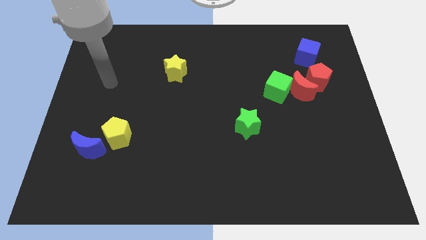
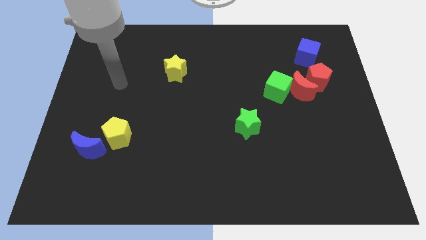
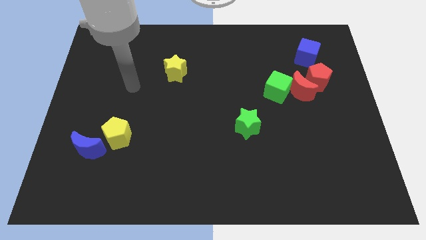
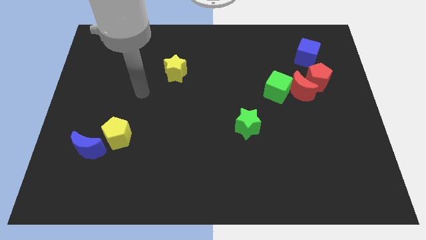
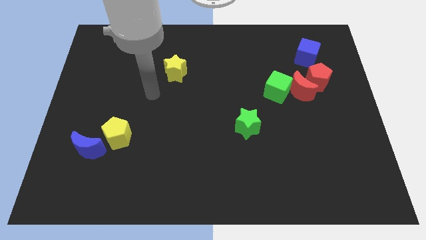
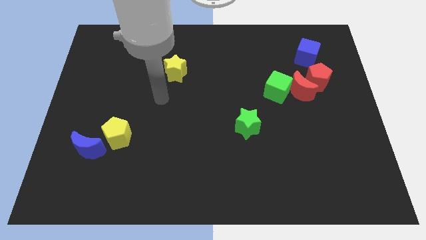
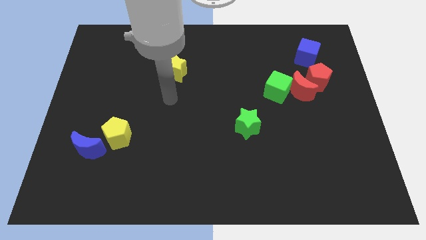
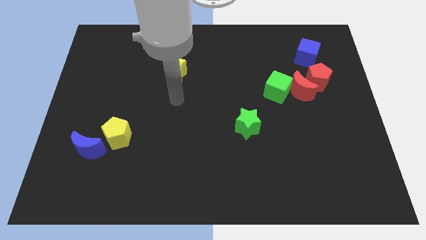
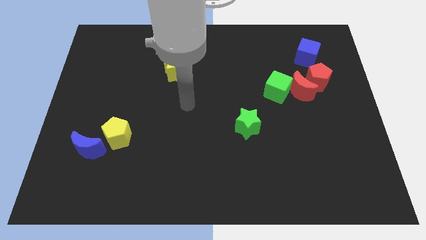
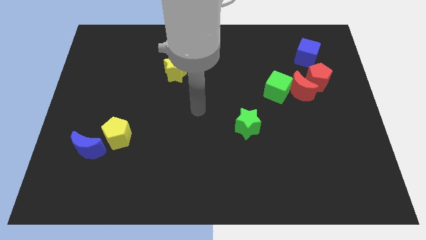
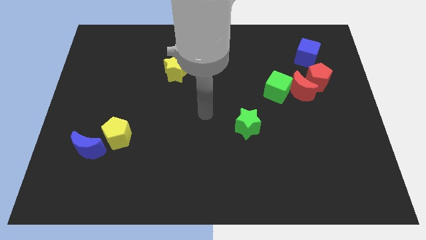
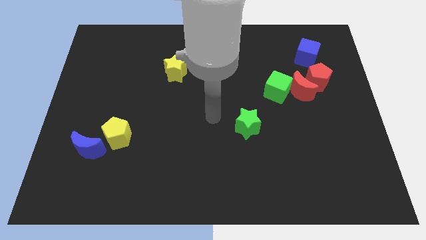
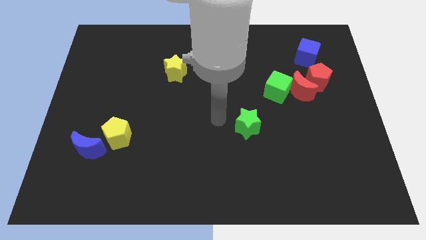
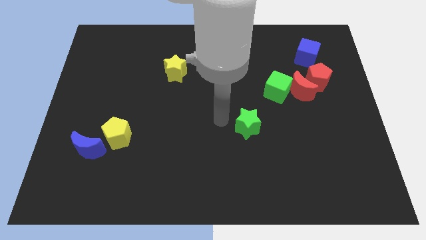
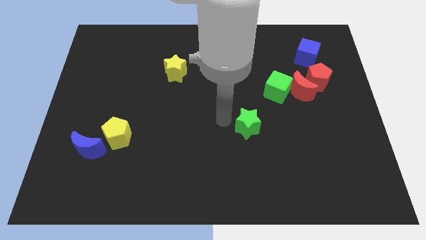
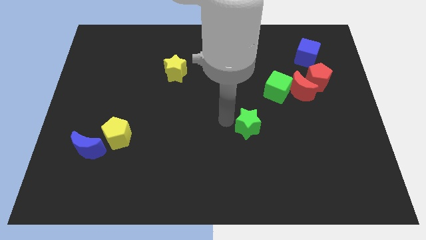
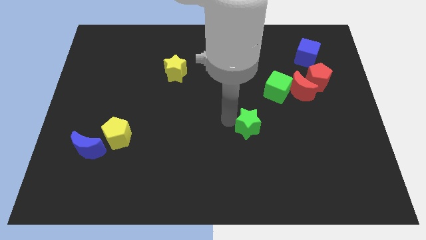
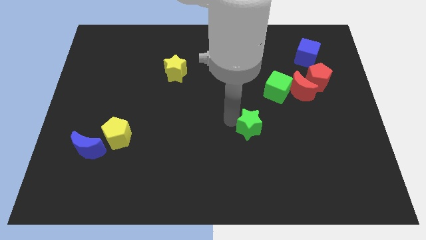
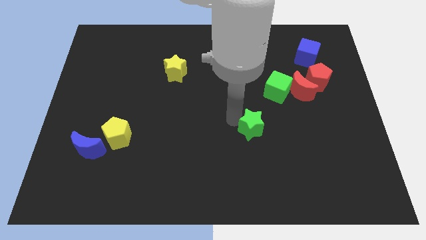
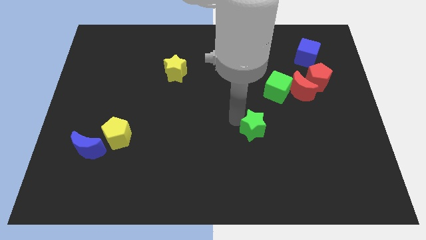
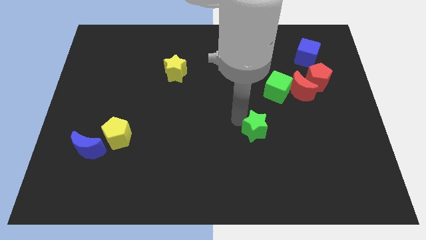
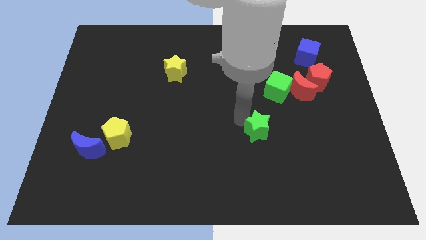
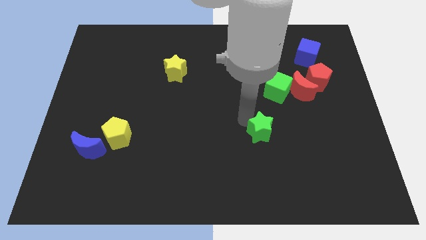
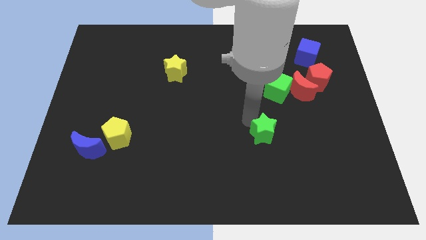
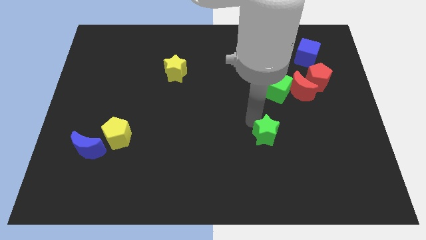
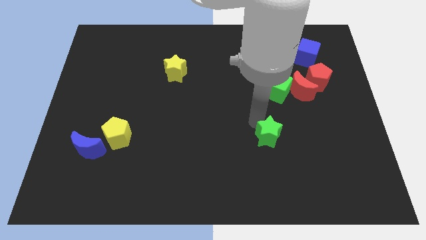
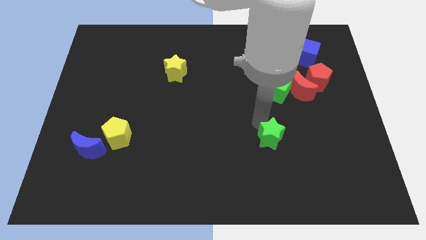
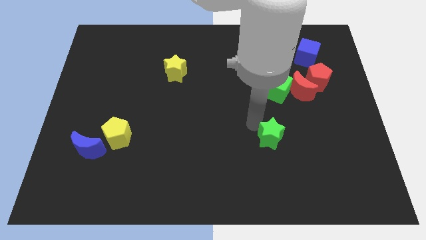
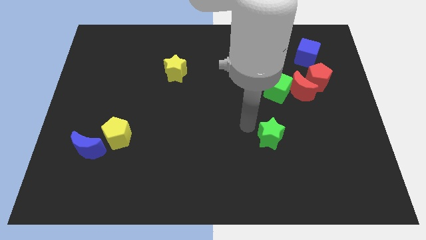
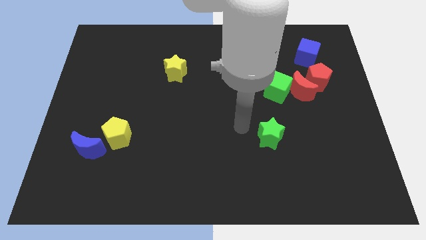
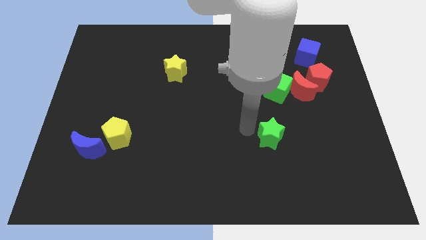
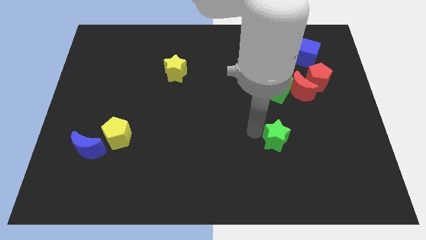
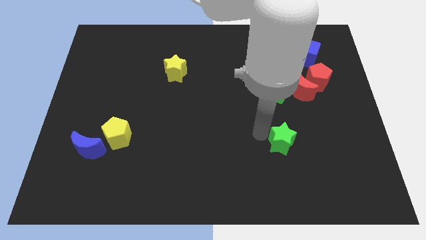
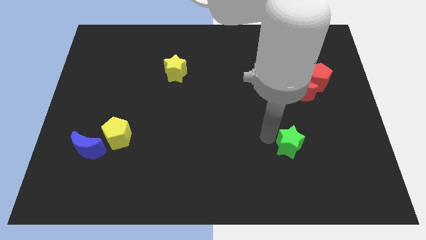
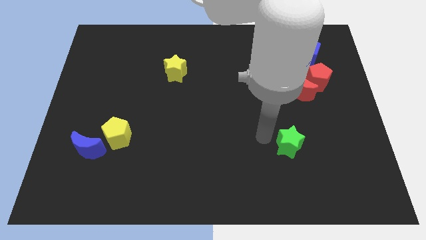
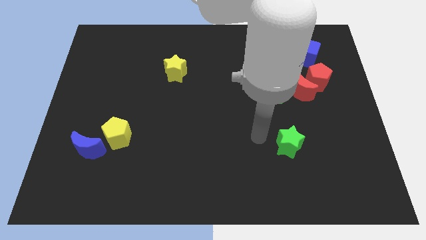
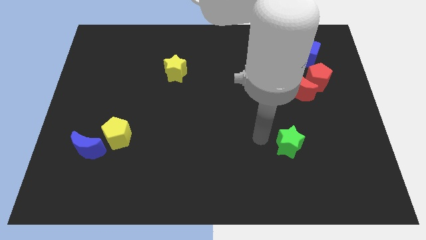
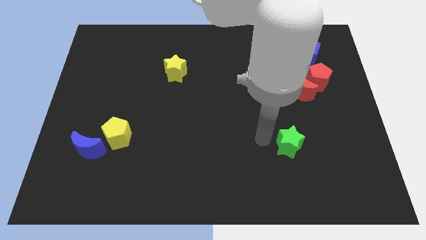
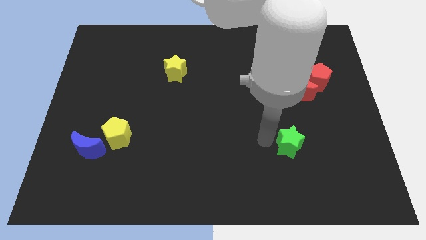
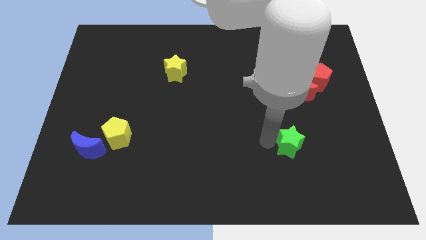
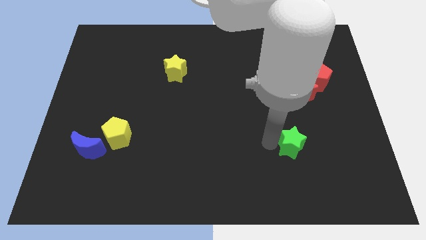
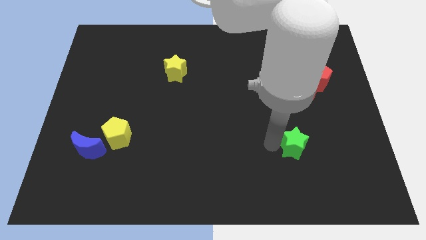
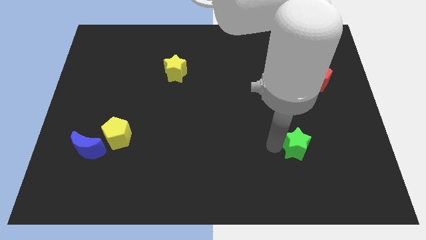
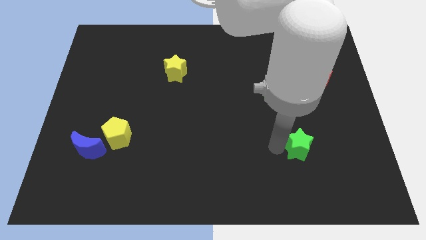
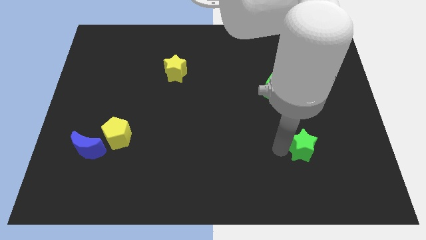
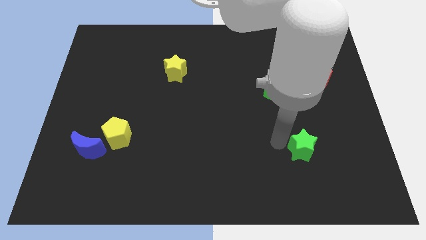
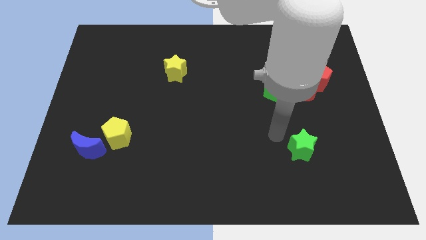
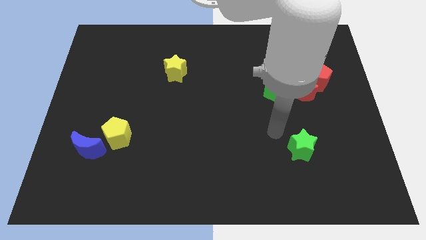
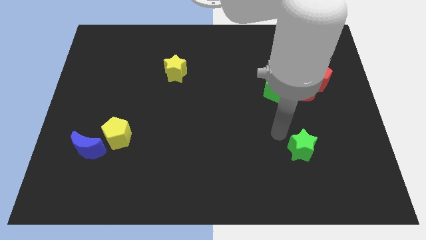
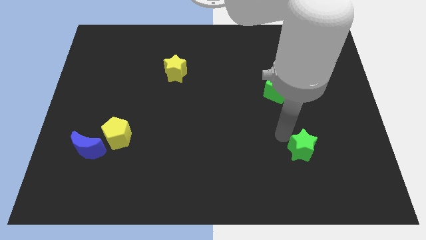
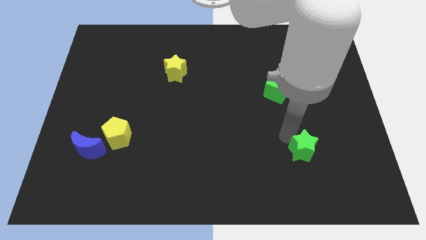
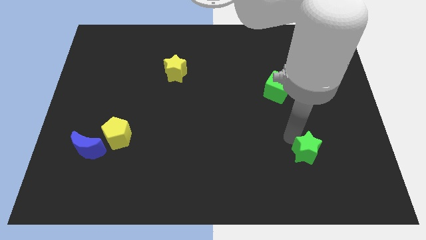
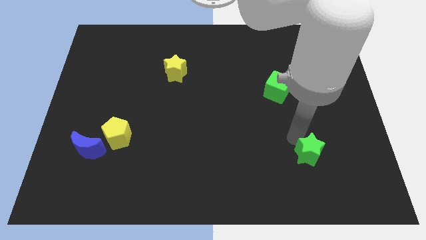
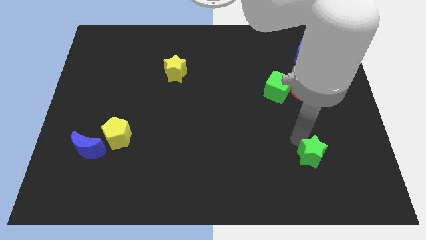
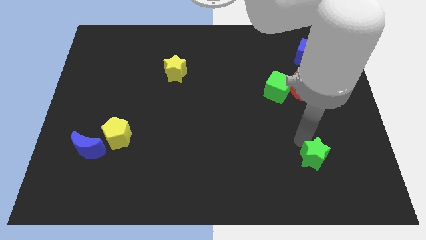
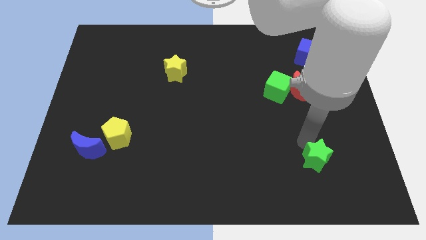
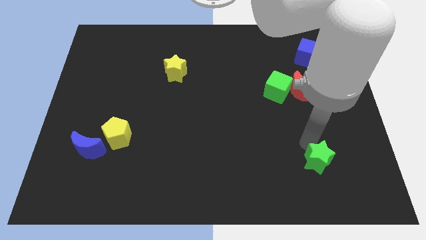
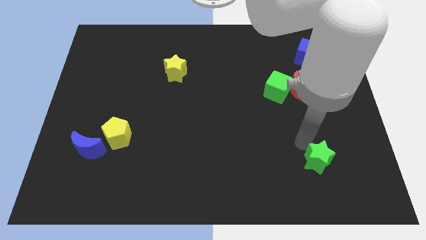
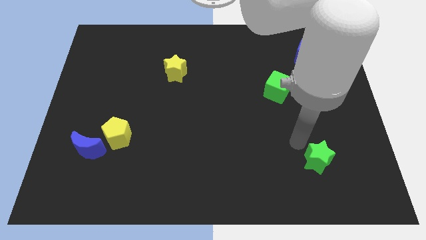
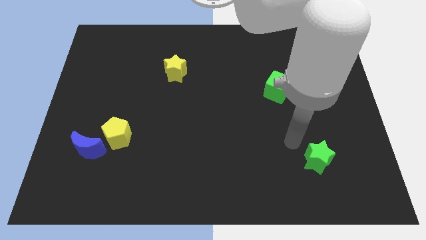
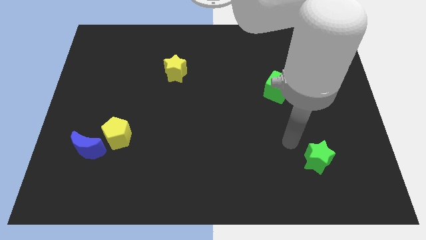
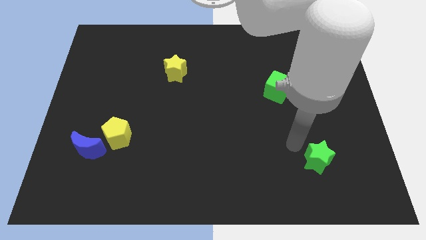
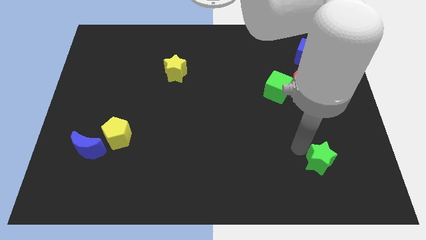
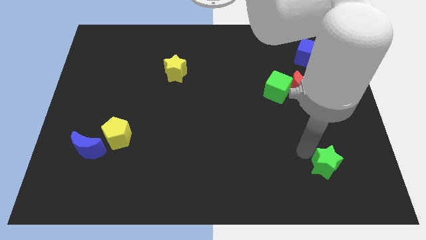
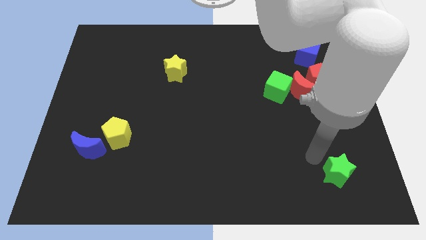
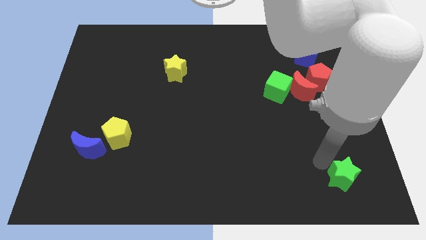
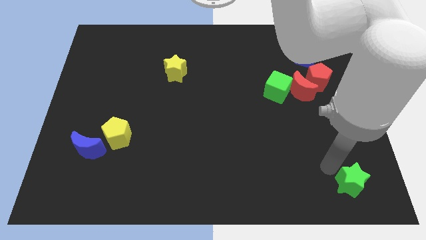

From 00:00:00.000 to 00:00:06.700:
put the green star to the bottom right corner

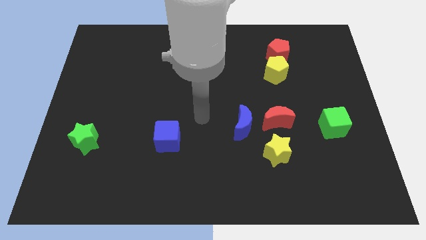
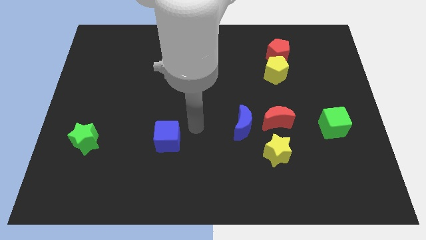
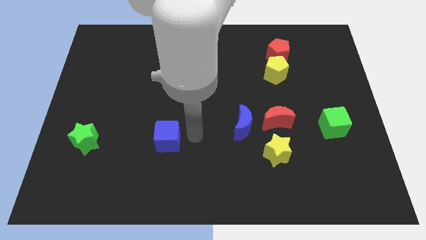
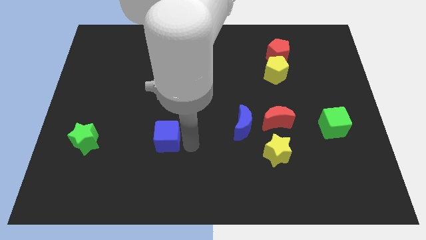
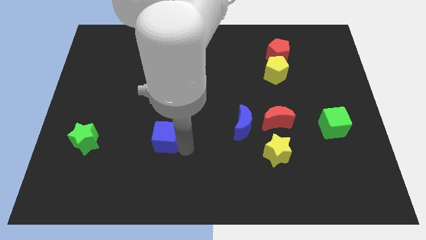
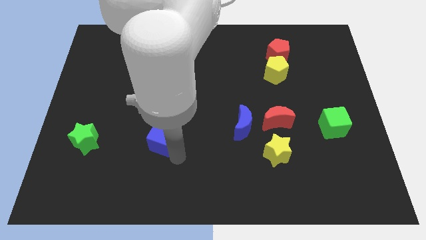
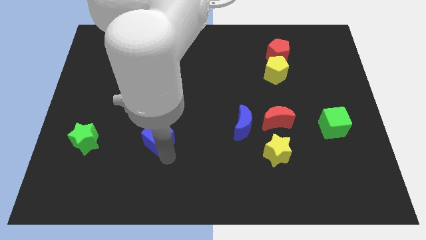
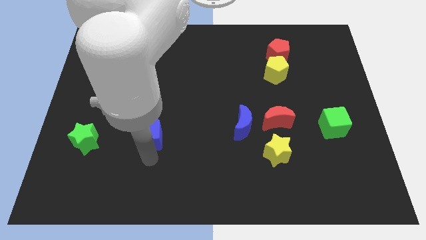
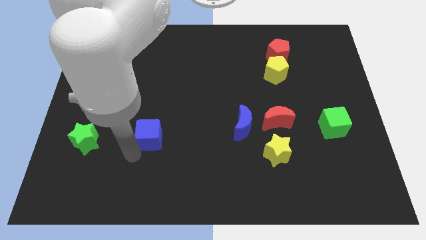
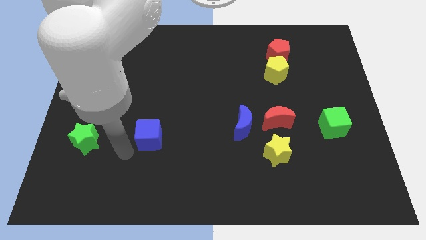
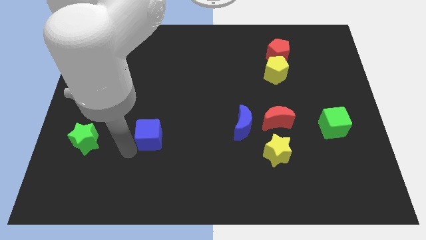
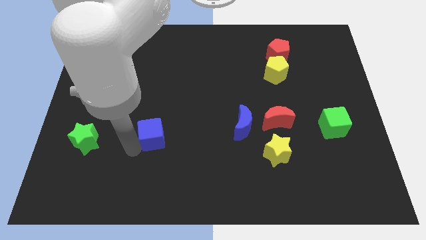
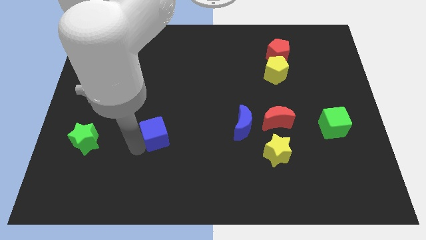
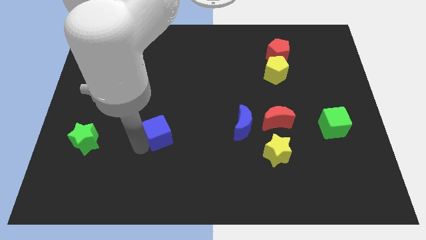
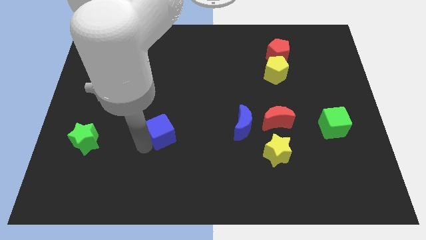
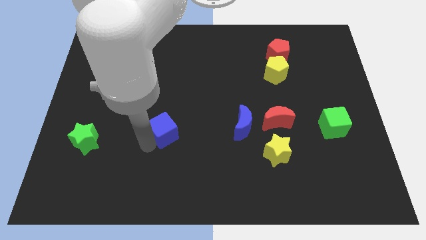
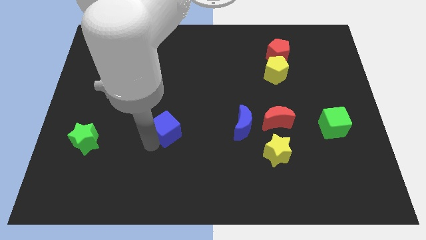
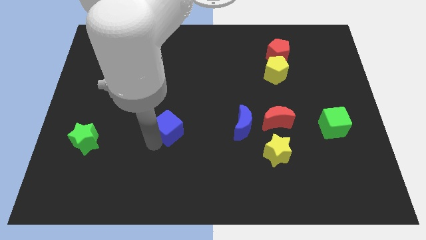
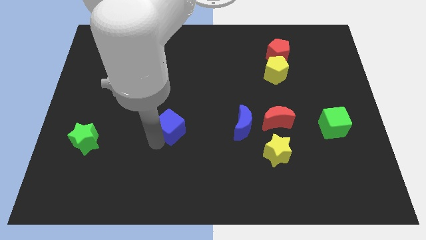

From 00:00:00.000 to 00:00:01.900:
put the blue cube to the center of the board
